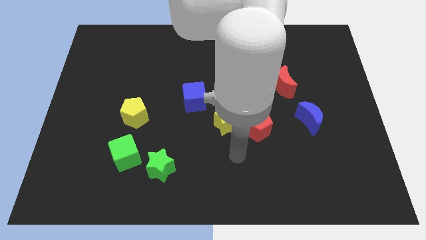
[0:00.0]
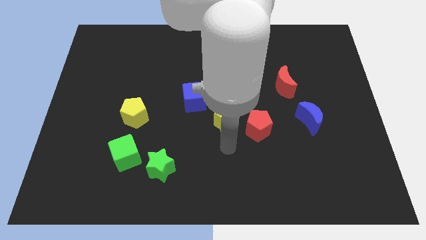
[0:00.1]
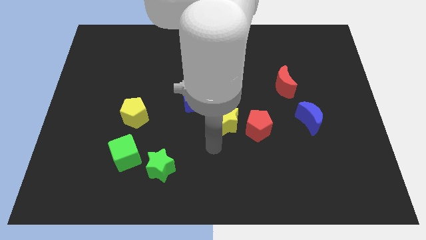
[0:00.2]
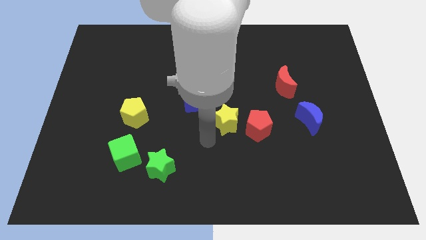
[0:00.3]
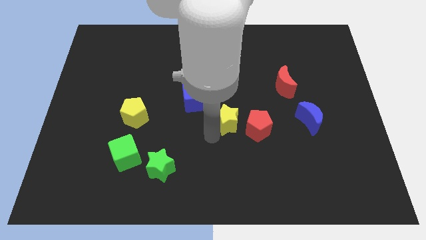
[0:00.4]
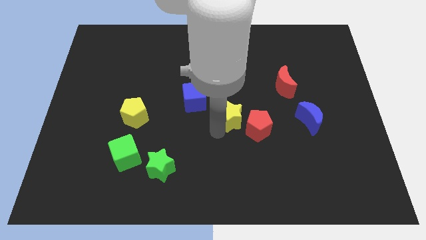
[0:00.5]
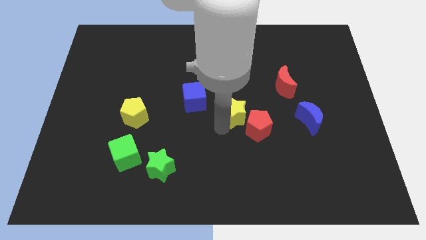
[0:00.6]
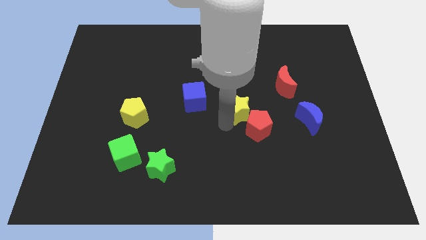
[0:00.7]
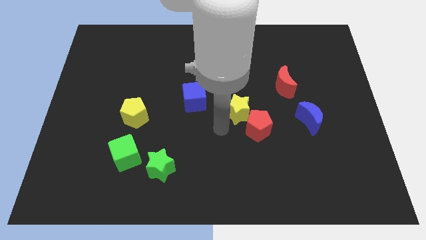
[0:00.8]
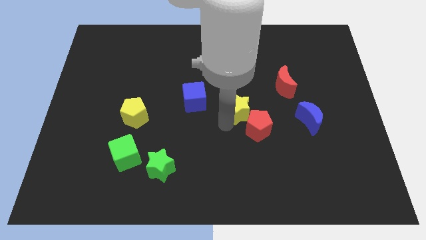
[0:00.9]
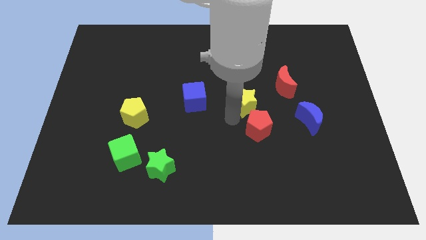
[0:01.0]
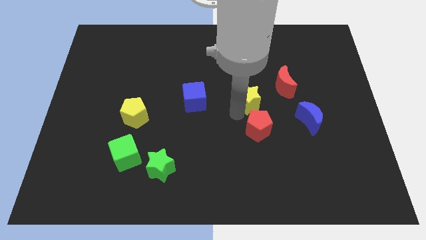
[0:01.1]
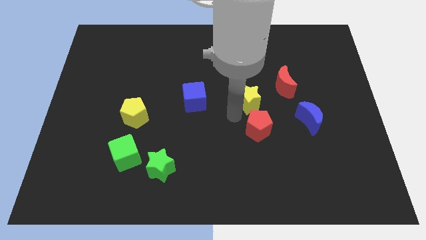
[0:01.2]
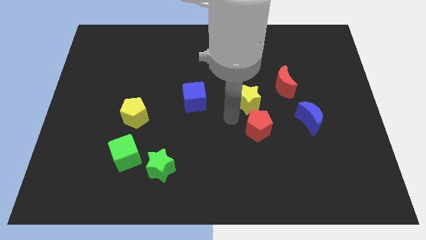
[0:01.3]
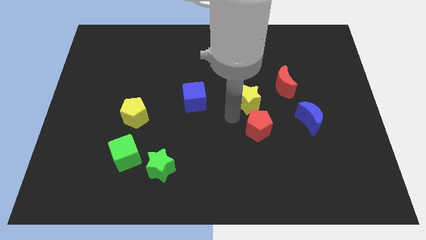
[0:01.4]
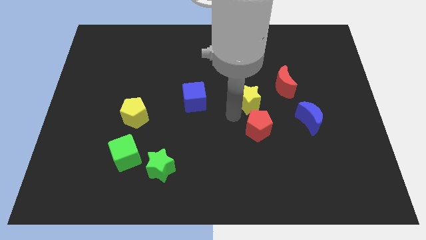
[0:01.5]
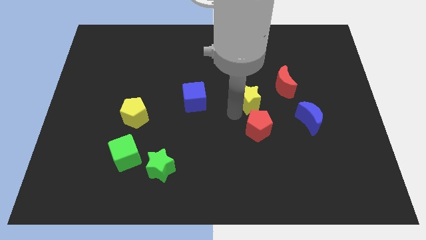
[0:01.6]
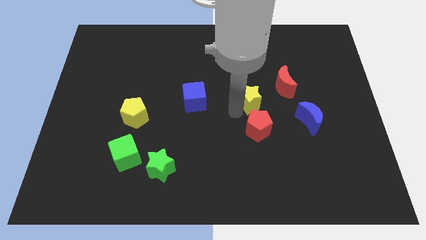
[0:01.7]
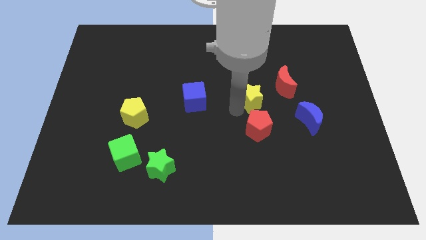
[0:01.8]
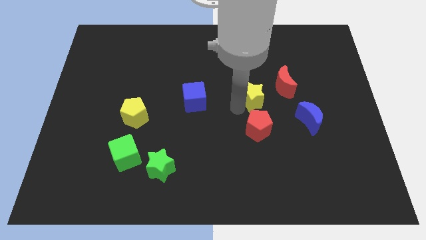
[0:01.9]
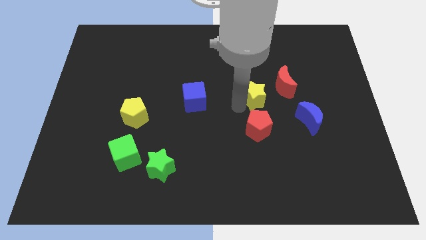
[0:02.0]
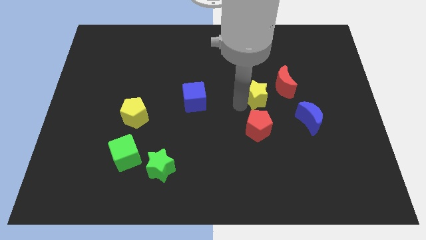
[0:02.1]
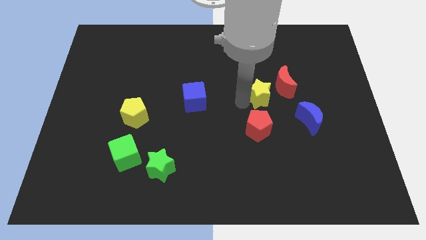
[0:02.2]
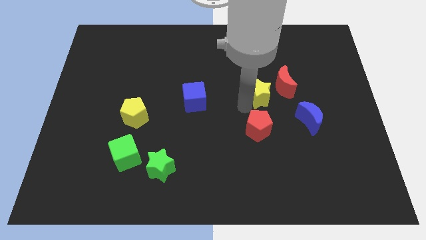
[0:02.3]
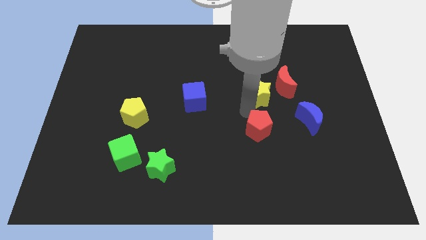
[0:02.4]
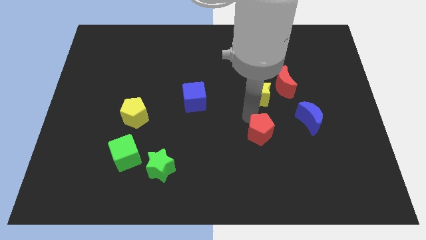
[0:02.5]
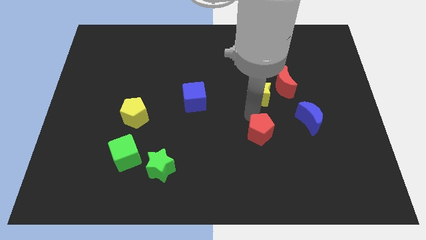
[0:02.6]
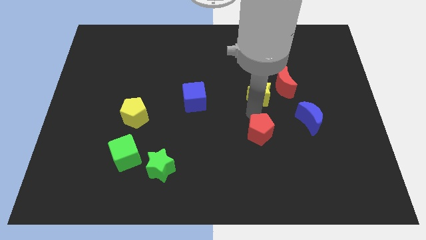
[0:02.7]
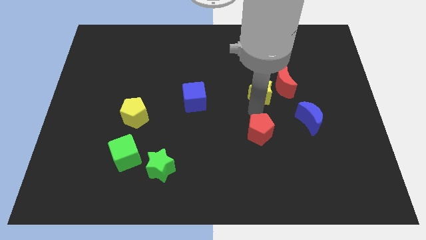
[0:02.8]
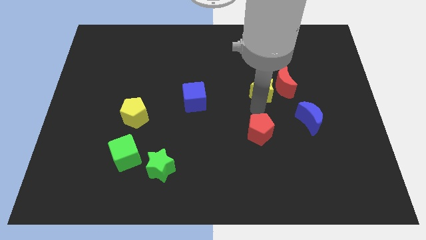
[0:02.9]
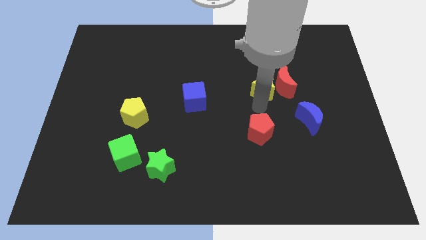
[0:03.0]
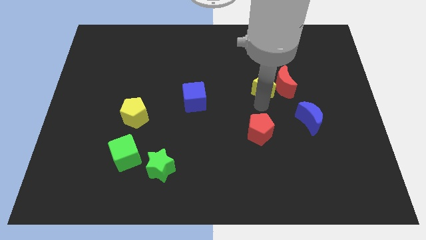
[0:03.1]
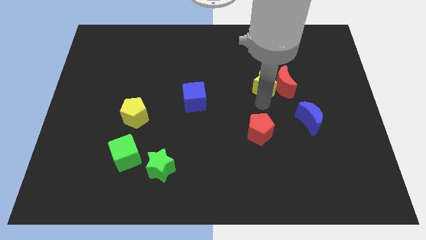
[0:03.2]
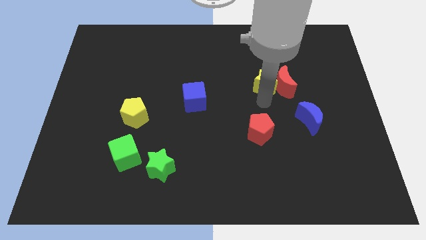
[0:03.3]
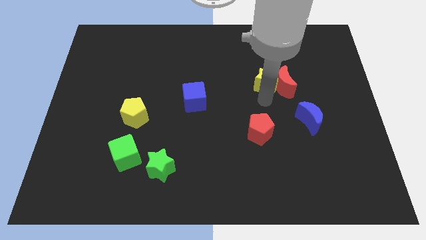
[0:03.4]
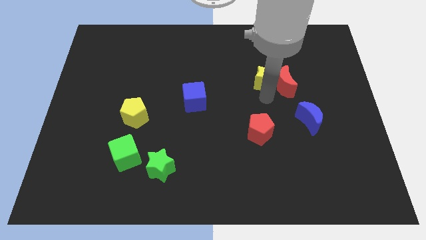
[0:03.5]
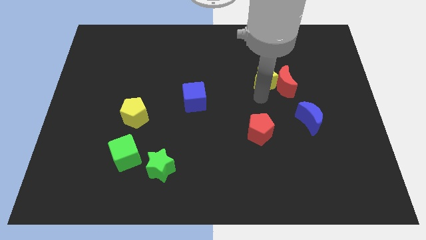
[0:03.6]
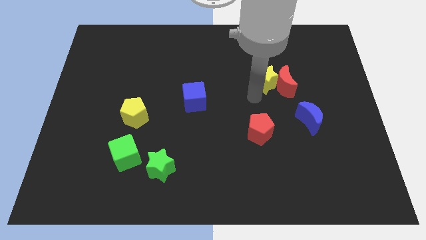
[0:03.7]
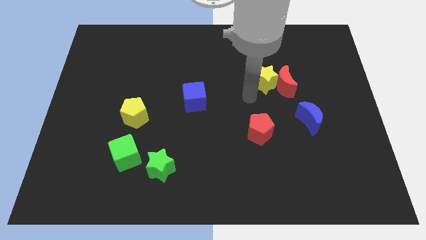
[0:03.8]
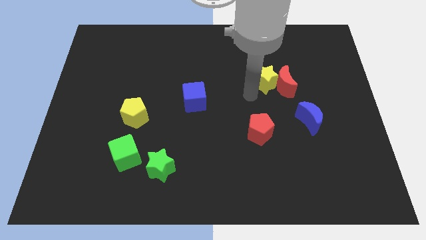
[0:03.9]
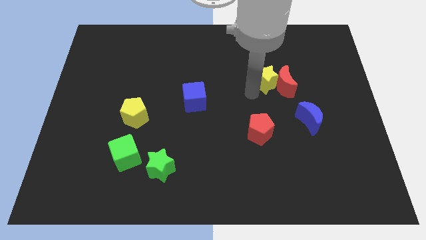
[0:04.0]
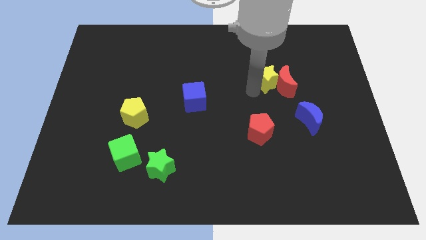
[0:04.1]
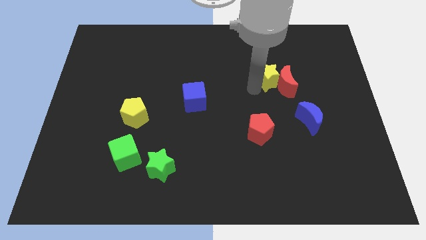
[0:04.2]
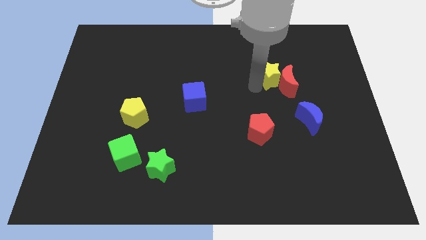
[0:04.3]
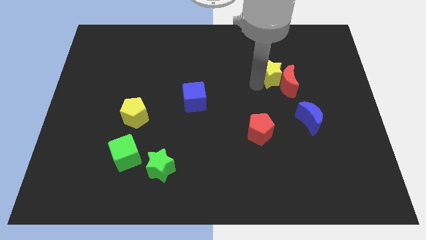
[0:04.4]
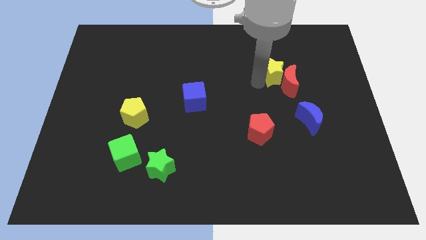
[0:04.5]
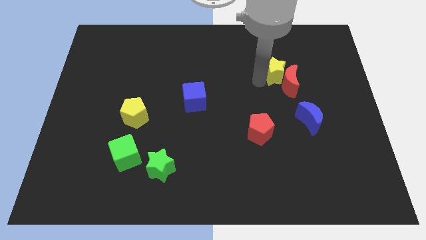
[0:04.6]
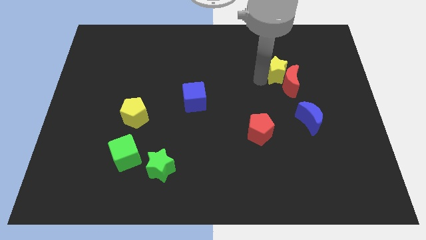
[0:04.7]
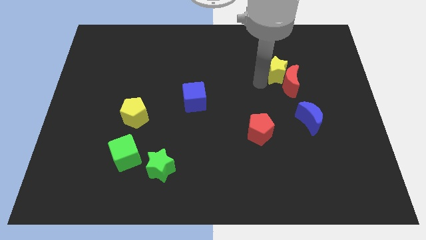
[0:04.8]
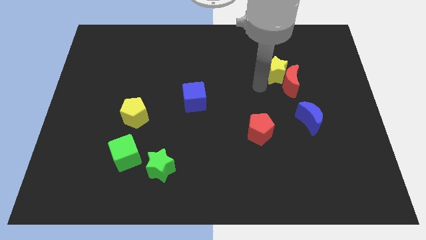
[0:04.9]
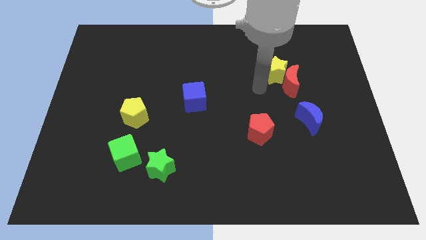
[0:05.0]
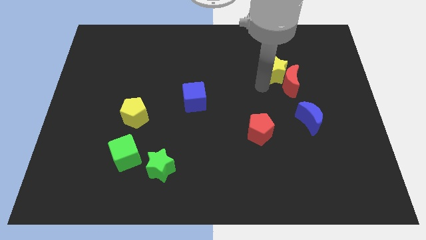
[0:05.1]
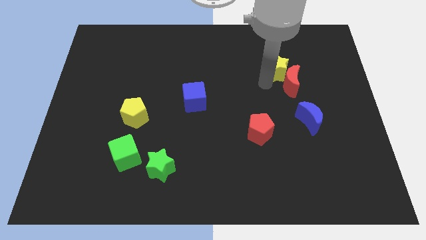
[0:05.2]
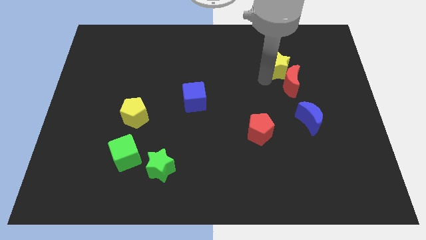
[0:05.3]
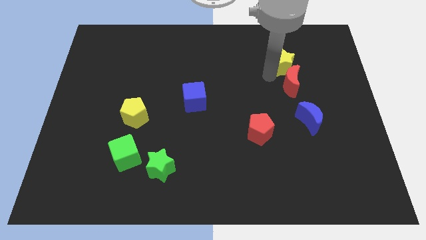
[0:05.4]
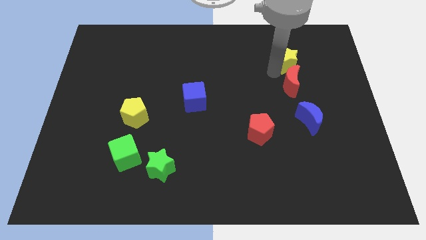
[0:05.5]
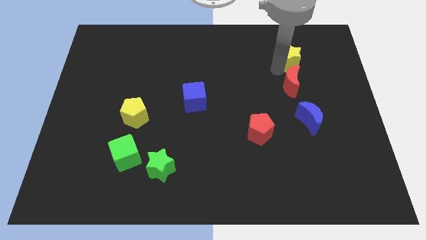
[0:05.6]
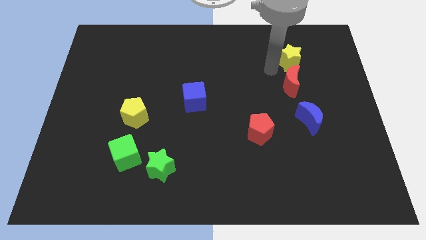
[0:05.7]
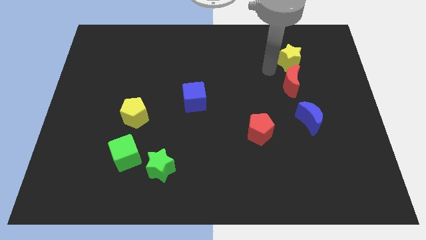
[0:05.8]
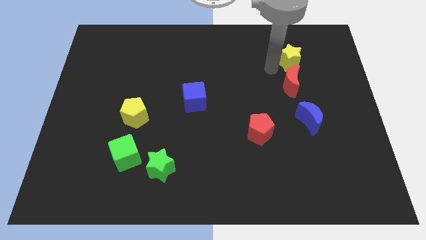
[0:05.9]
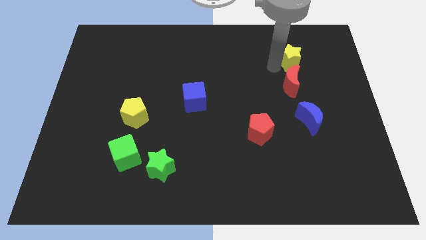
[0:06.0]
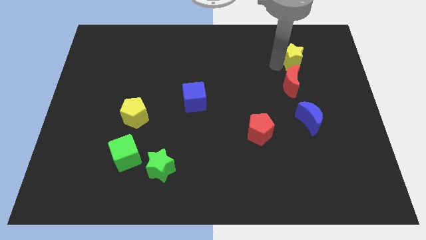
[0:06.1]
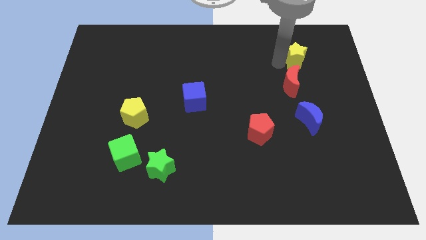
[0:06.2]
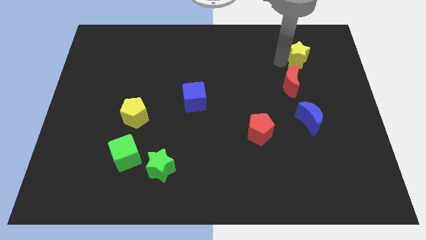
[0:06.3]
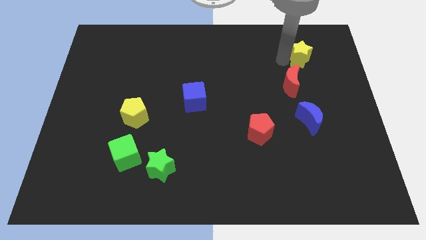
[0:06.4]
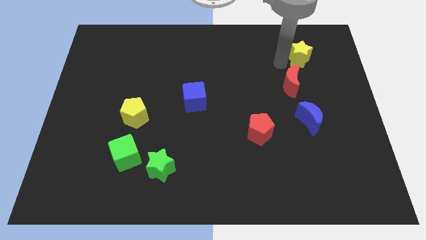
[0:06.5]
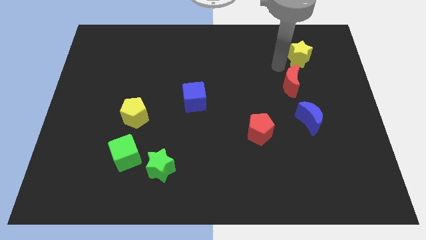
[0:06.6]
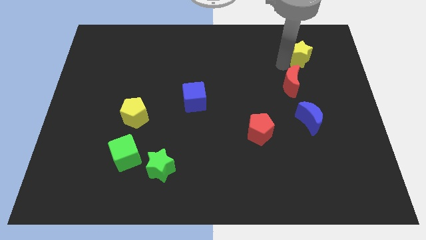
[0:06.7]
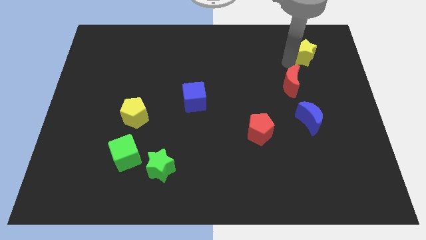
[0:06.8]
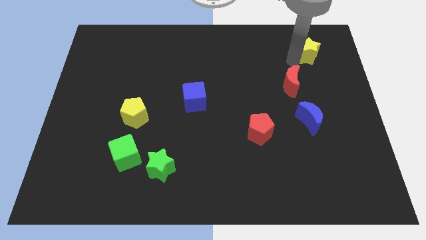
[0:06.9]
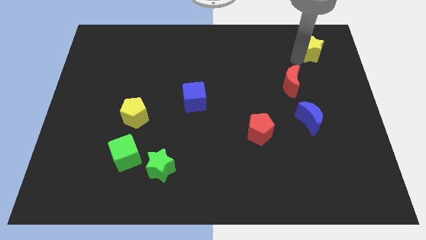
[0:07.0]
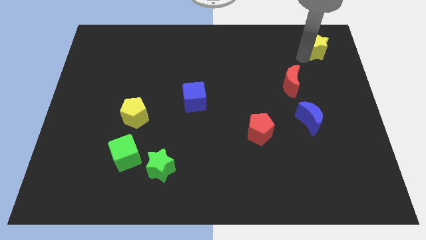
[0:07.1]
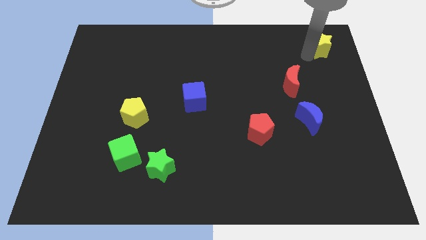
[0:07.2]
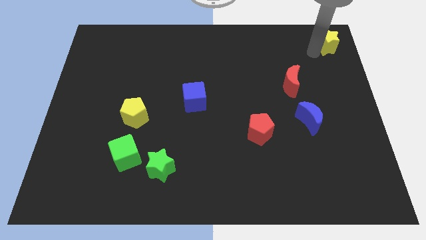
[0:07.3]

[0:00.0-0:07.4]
slide the yellow star to the top right
